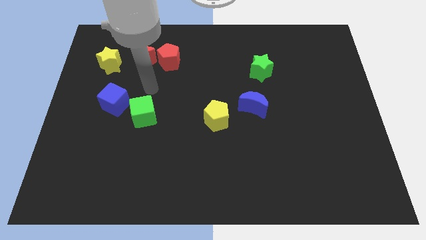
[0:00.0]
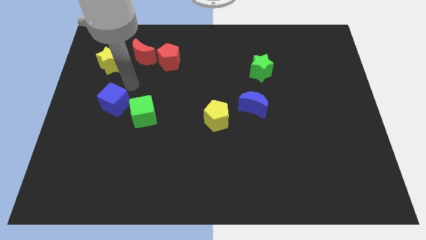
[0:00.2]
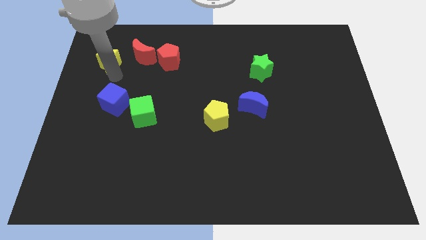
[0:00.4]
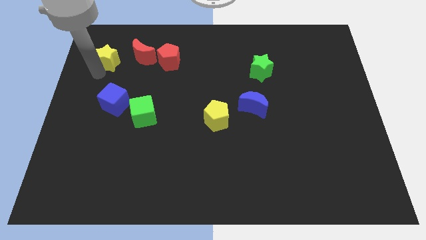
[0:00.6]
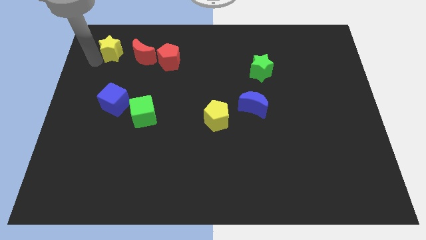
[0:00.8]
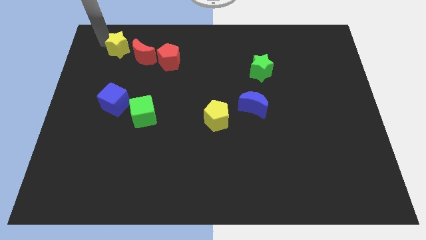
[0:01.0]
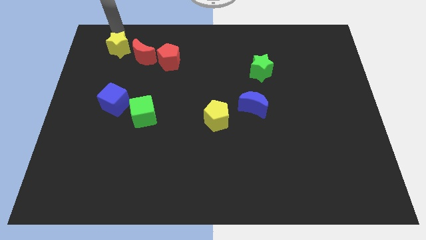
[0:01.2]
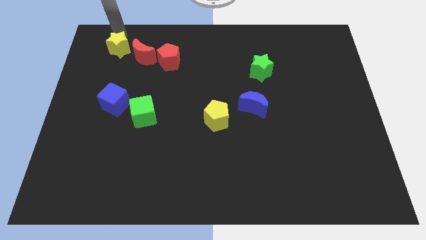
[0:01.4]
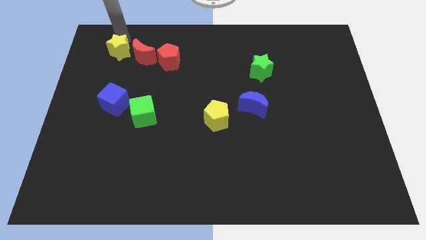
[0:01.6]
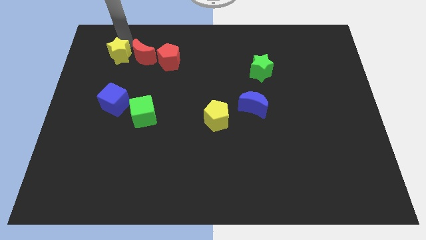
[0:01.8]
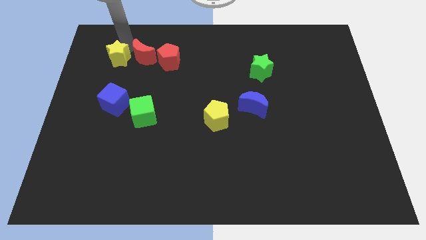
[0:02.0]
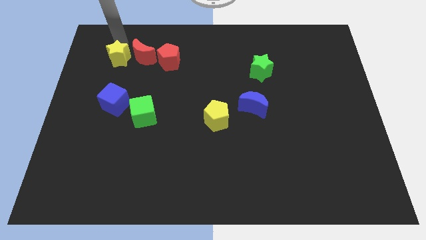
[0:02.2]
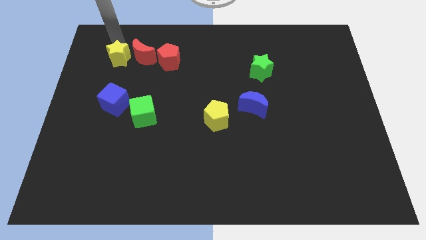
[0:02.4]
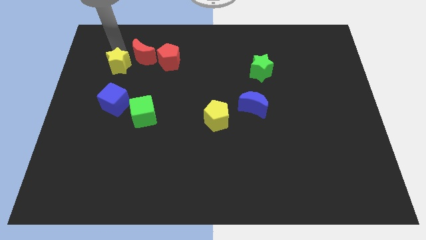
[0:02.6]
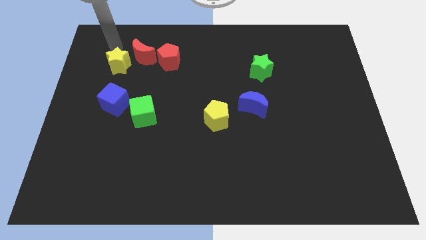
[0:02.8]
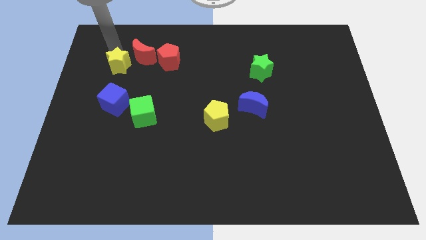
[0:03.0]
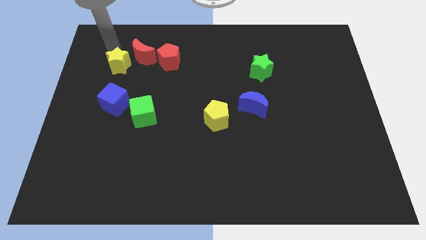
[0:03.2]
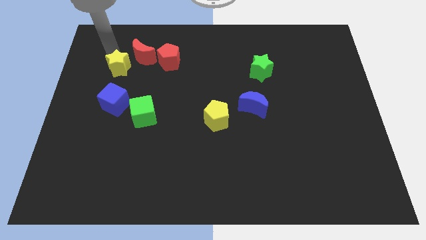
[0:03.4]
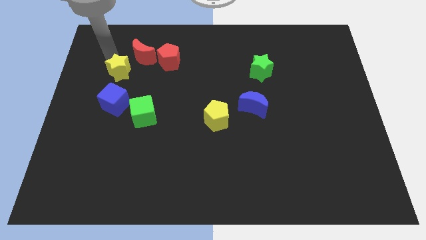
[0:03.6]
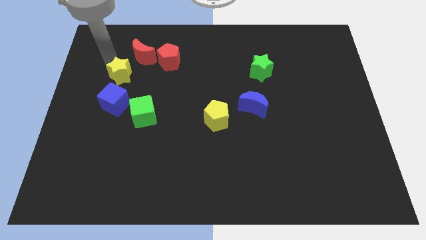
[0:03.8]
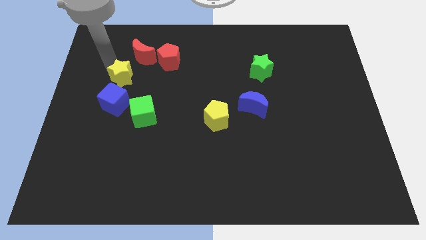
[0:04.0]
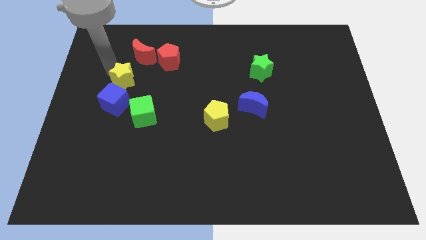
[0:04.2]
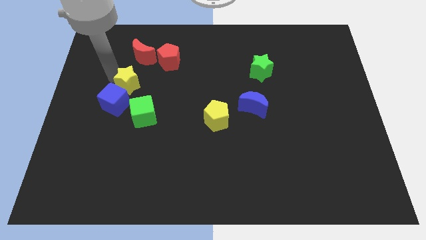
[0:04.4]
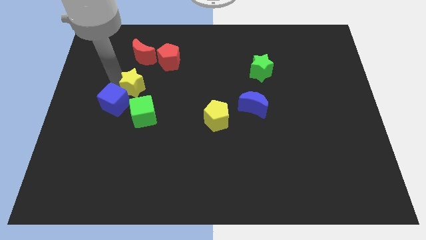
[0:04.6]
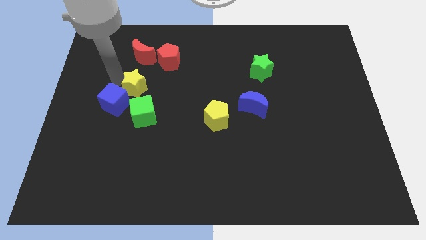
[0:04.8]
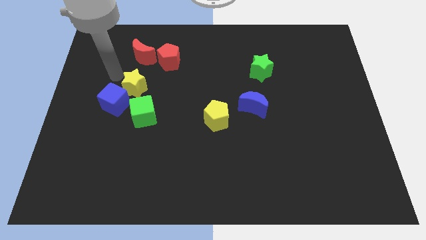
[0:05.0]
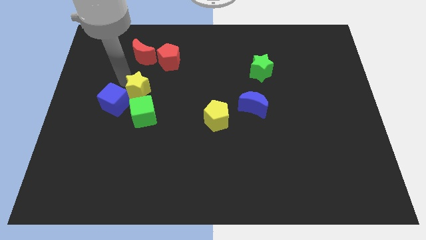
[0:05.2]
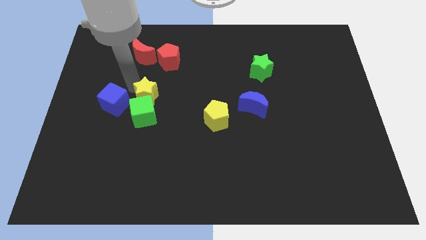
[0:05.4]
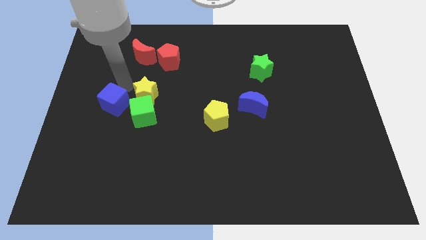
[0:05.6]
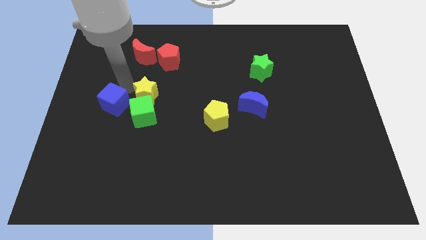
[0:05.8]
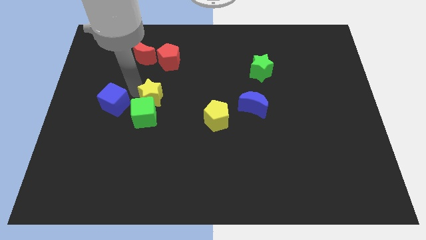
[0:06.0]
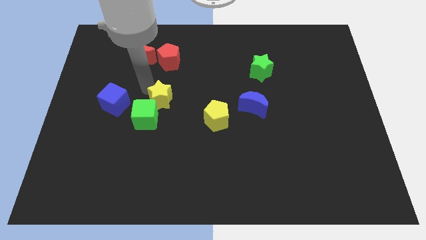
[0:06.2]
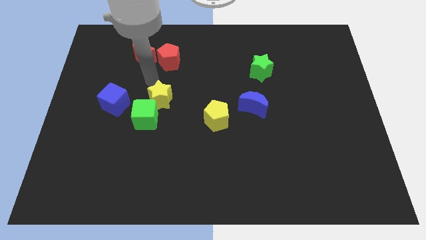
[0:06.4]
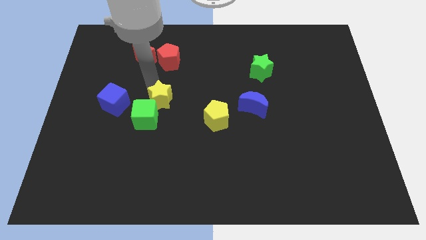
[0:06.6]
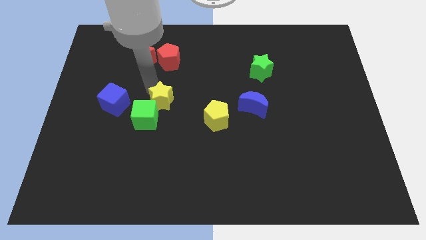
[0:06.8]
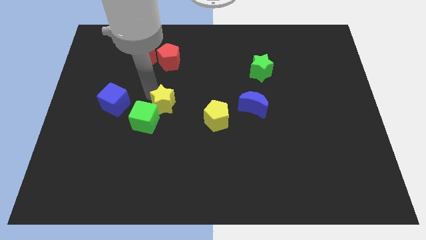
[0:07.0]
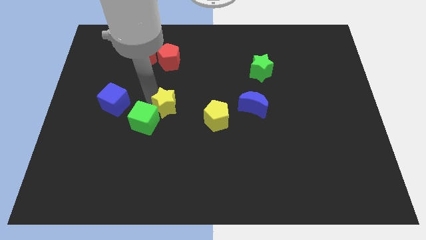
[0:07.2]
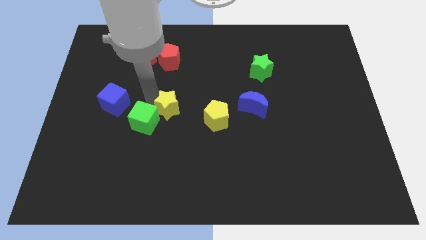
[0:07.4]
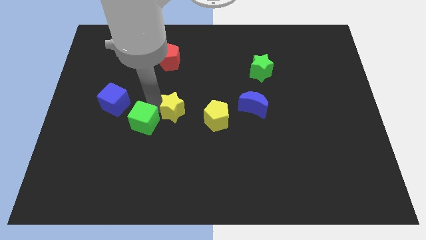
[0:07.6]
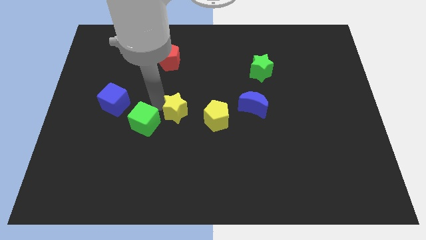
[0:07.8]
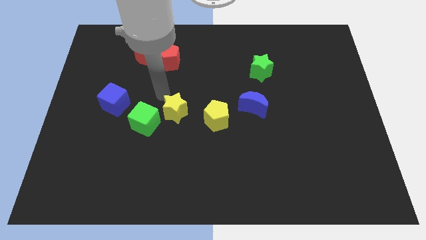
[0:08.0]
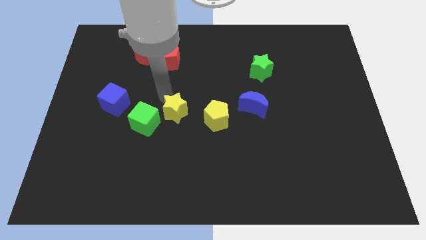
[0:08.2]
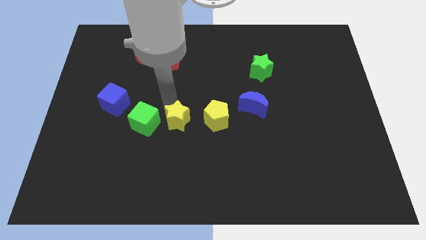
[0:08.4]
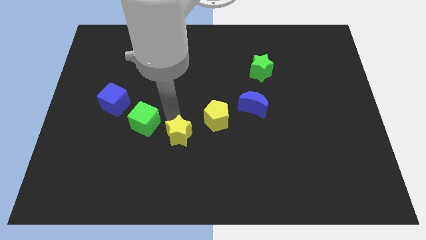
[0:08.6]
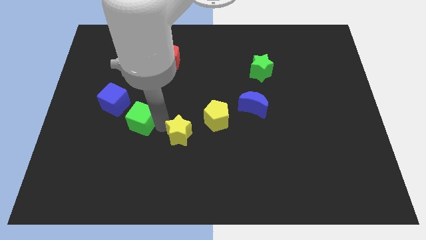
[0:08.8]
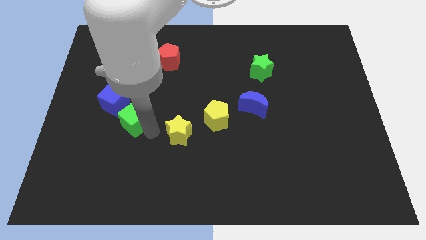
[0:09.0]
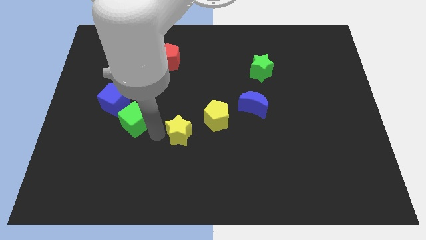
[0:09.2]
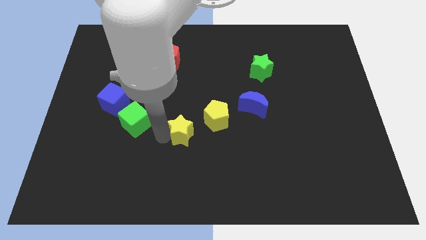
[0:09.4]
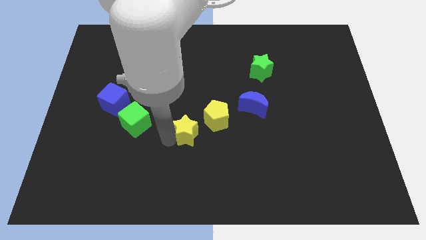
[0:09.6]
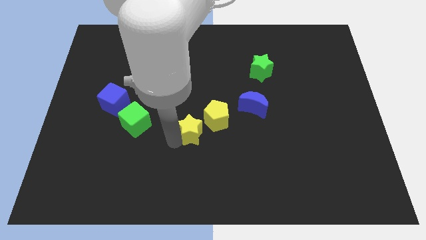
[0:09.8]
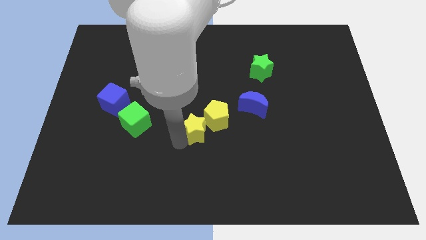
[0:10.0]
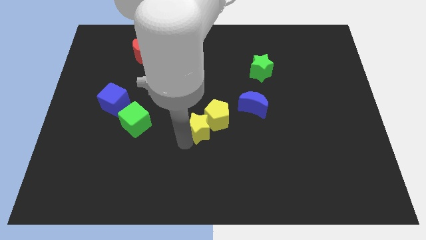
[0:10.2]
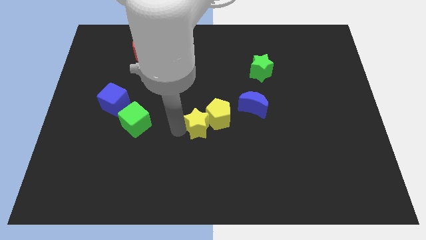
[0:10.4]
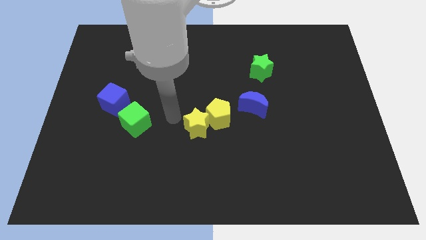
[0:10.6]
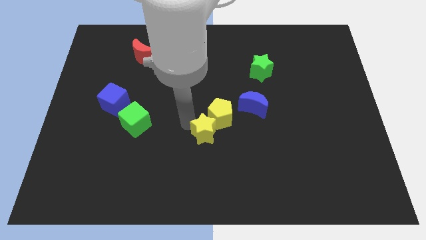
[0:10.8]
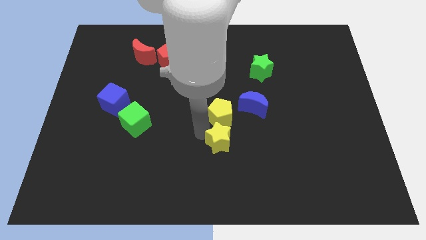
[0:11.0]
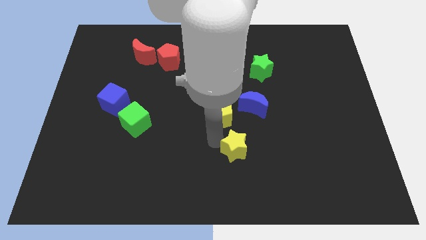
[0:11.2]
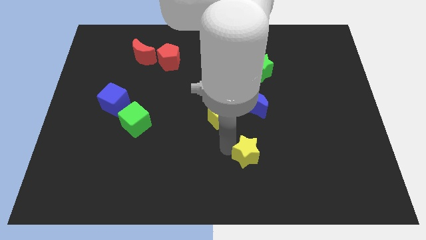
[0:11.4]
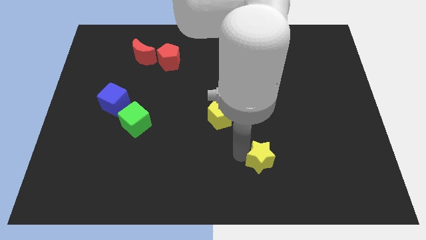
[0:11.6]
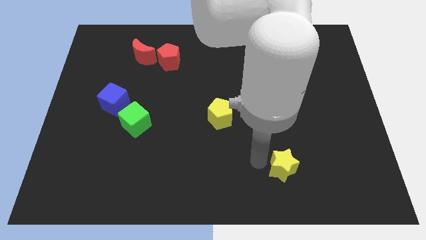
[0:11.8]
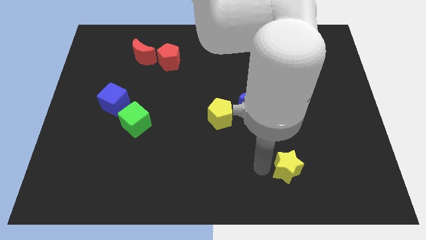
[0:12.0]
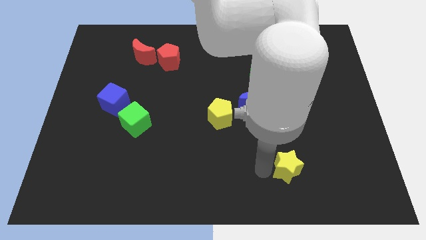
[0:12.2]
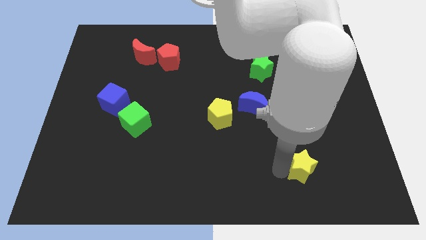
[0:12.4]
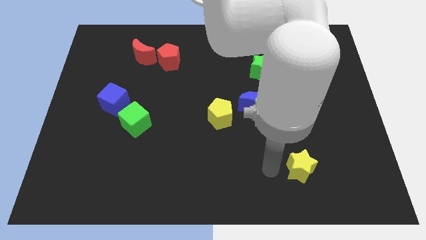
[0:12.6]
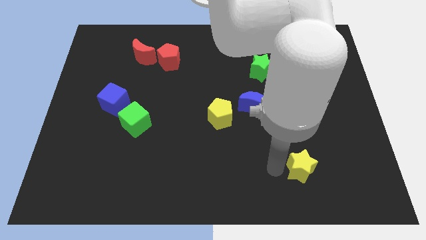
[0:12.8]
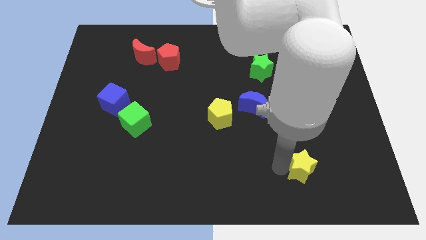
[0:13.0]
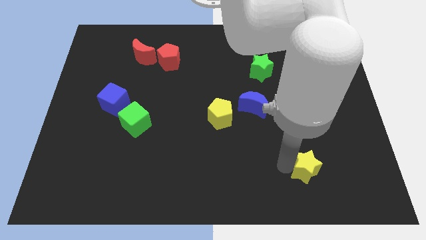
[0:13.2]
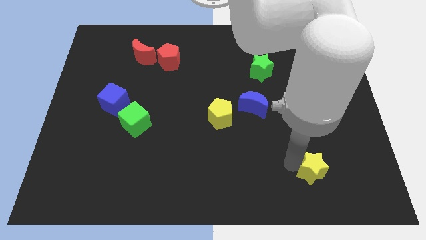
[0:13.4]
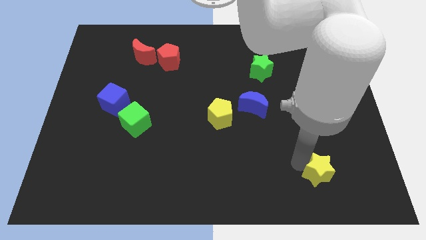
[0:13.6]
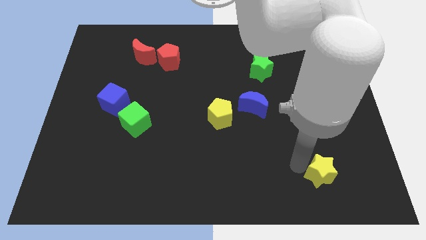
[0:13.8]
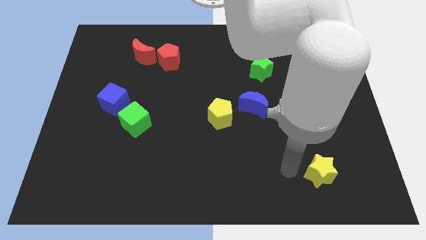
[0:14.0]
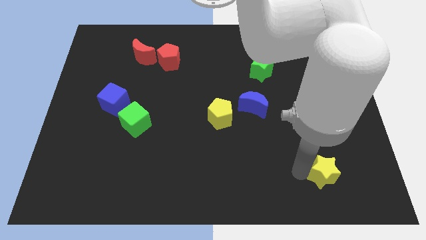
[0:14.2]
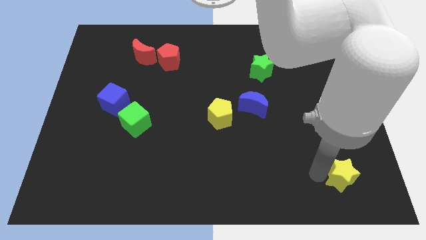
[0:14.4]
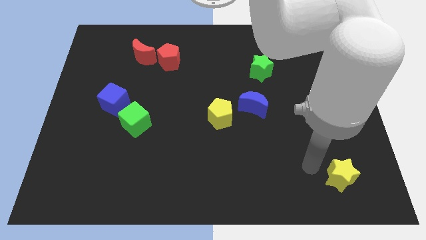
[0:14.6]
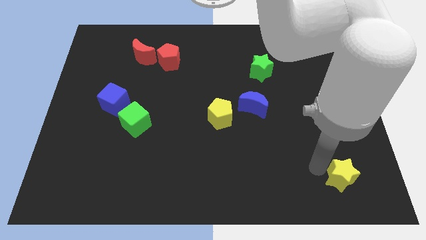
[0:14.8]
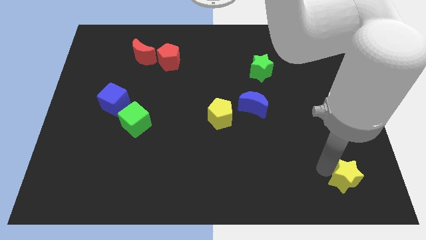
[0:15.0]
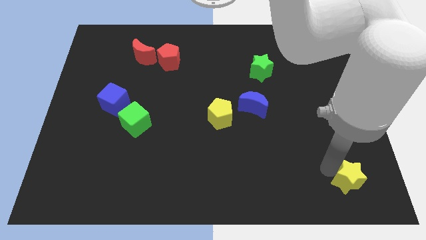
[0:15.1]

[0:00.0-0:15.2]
push the yellow star to the bottom right of the board
